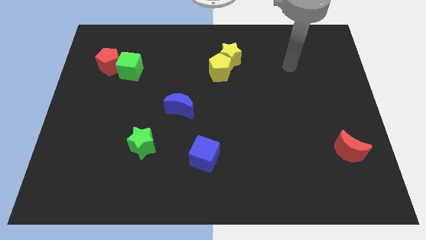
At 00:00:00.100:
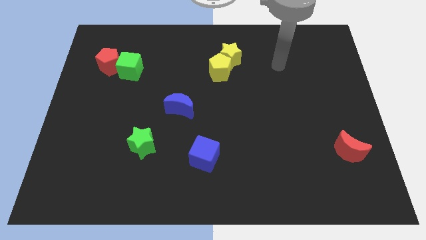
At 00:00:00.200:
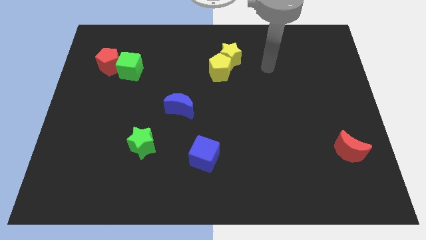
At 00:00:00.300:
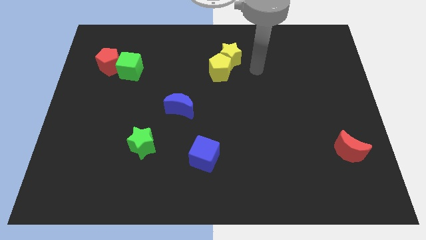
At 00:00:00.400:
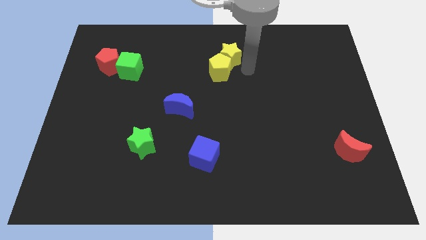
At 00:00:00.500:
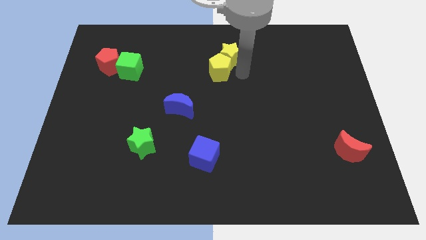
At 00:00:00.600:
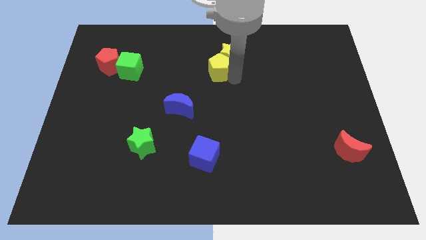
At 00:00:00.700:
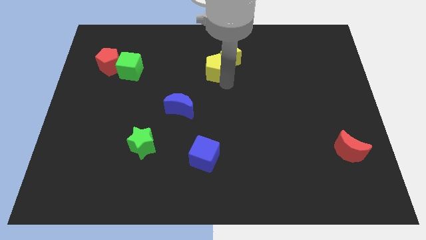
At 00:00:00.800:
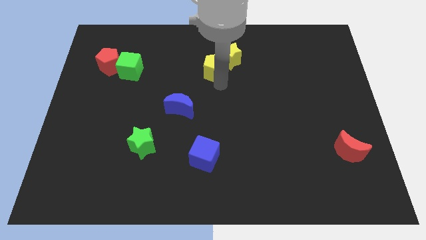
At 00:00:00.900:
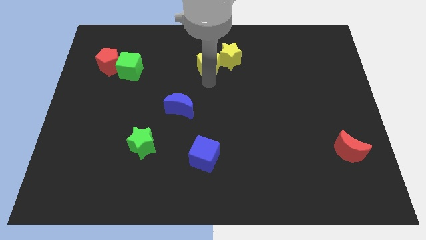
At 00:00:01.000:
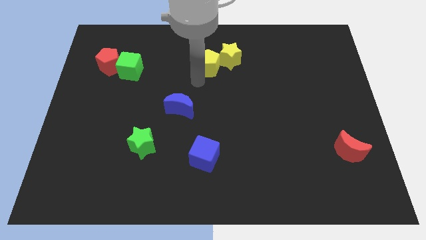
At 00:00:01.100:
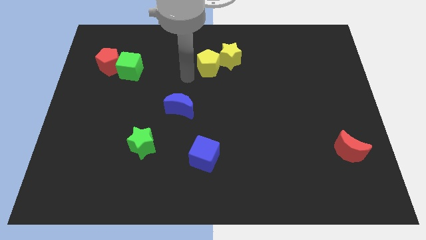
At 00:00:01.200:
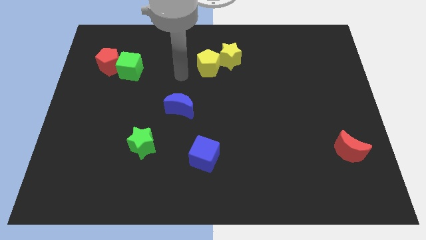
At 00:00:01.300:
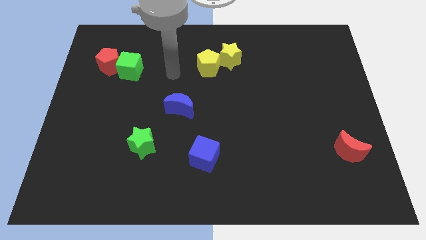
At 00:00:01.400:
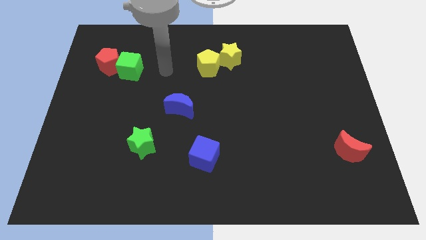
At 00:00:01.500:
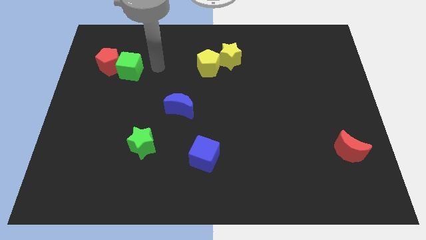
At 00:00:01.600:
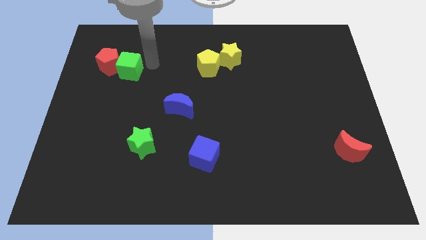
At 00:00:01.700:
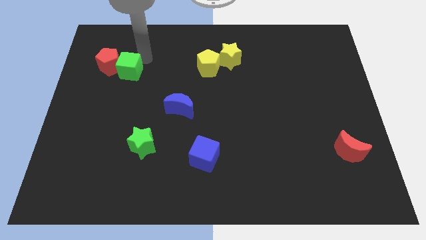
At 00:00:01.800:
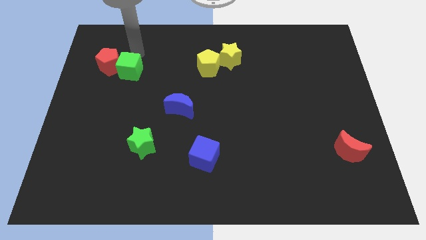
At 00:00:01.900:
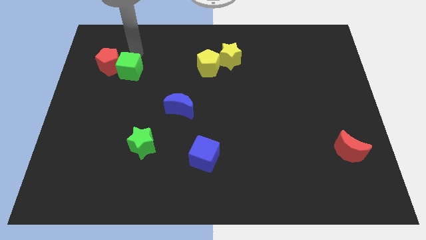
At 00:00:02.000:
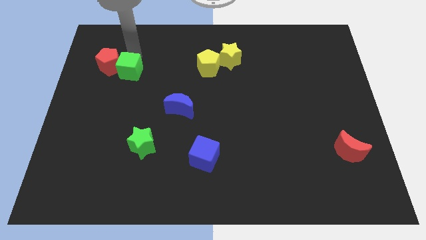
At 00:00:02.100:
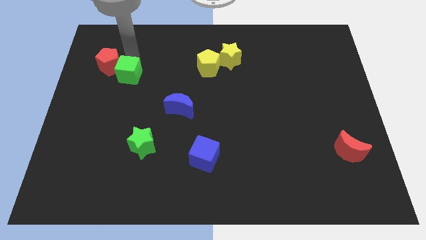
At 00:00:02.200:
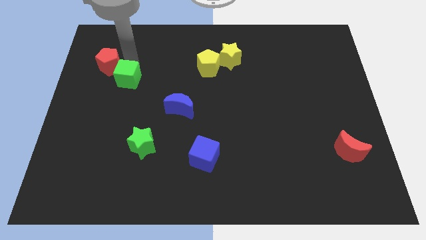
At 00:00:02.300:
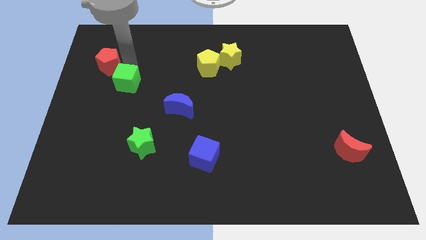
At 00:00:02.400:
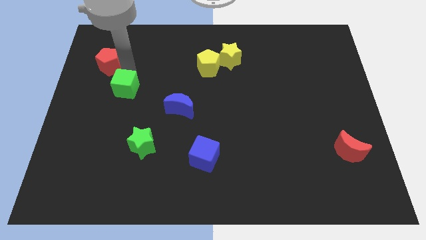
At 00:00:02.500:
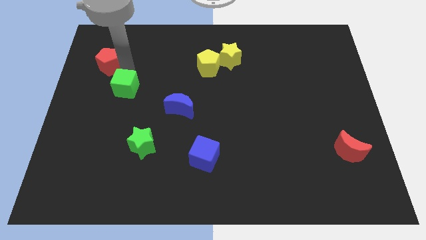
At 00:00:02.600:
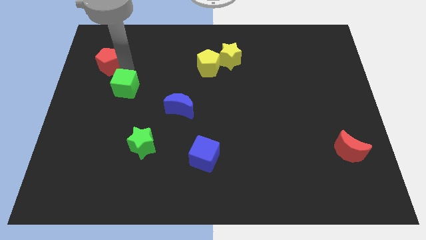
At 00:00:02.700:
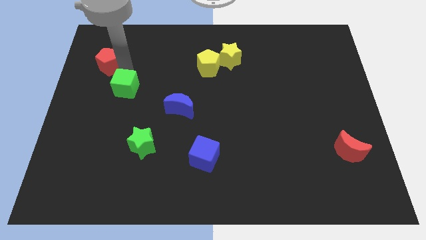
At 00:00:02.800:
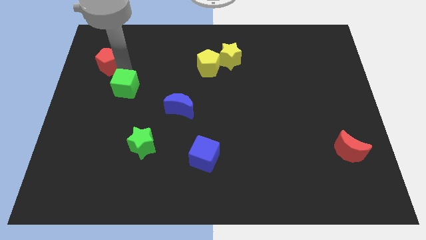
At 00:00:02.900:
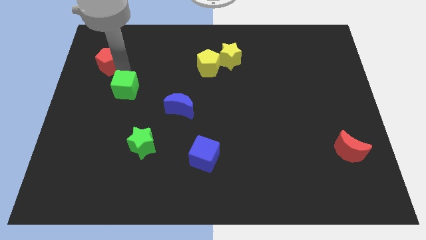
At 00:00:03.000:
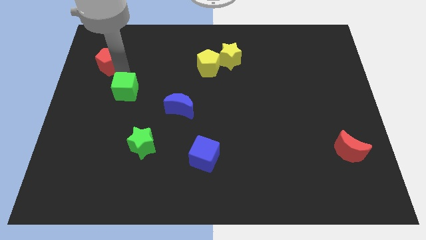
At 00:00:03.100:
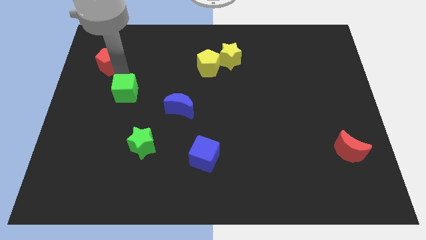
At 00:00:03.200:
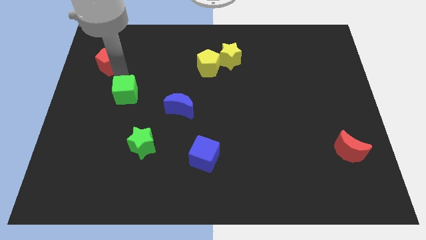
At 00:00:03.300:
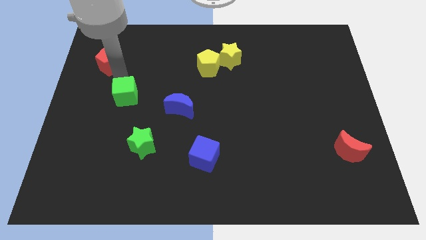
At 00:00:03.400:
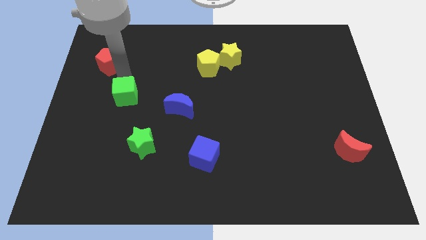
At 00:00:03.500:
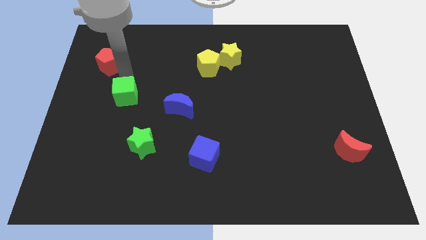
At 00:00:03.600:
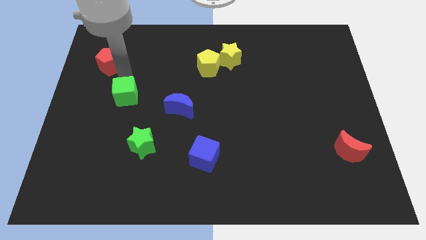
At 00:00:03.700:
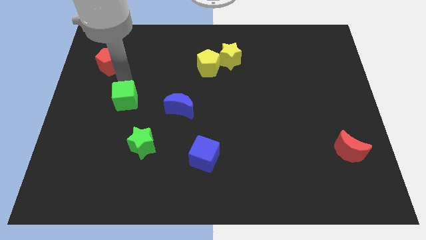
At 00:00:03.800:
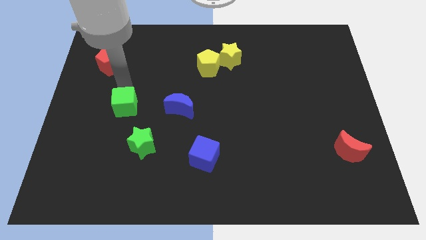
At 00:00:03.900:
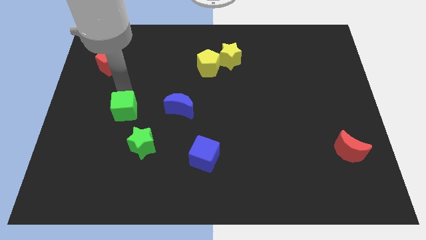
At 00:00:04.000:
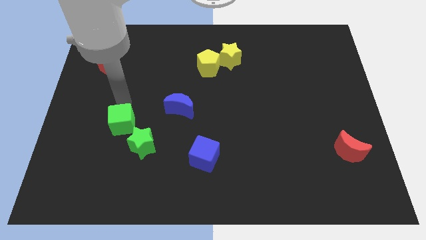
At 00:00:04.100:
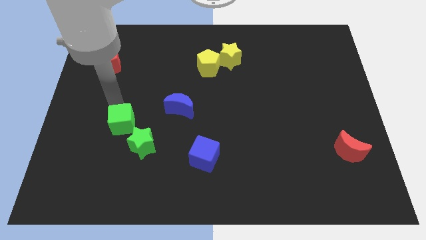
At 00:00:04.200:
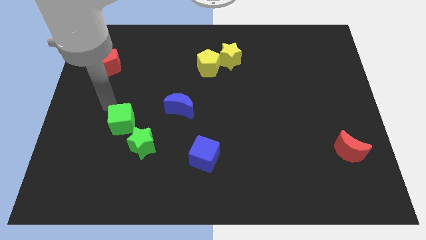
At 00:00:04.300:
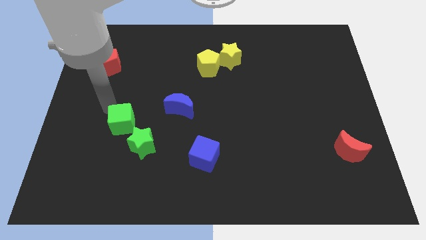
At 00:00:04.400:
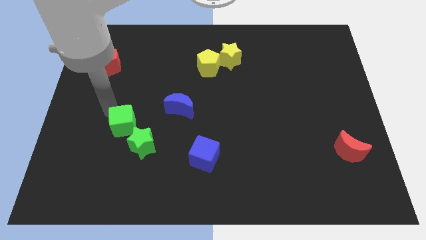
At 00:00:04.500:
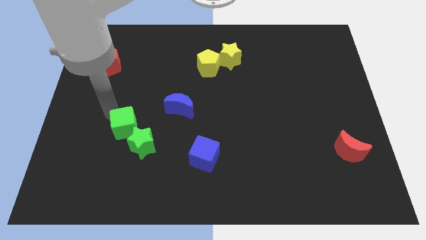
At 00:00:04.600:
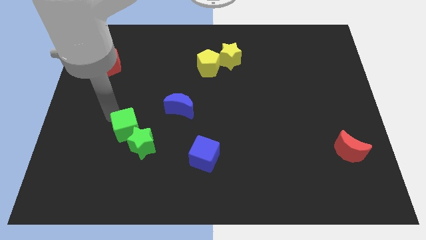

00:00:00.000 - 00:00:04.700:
put the green cube next to the green star

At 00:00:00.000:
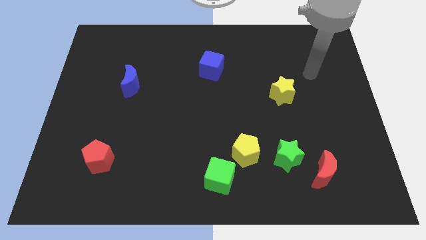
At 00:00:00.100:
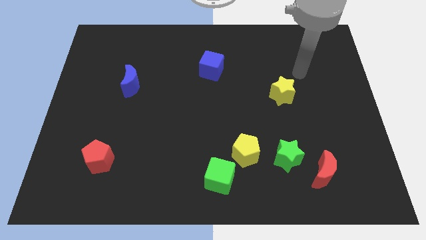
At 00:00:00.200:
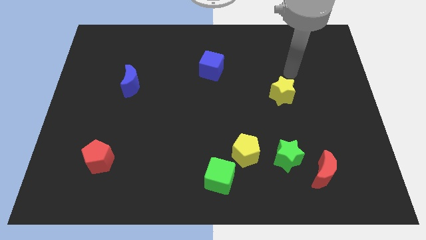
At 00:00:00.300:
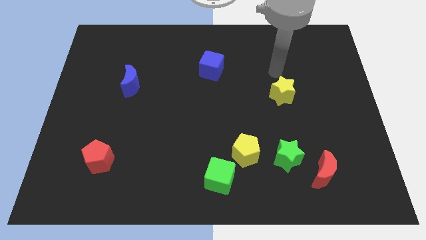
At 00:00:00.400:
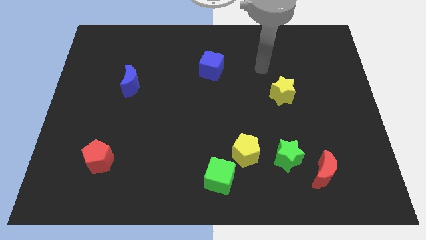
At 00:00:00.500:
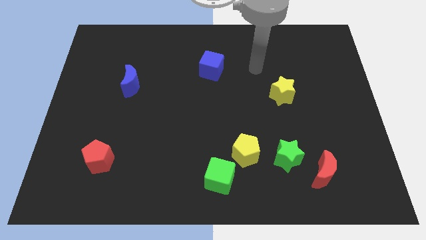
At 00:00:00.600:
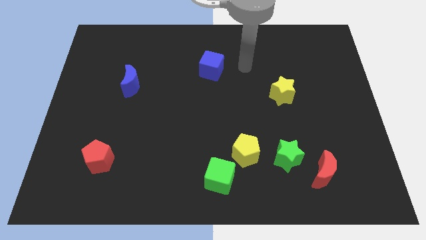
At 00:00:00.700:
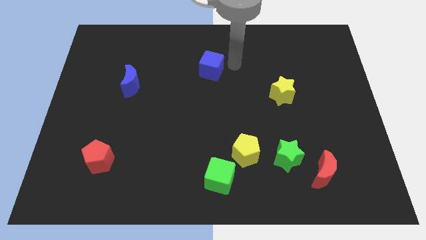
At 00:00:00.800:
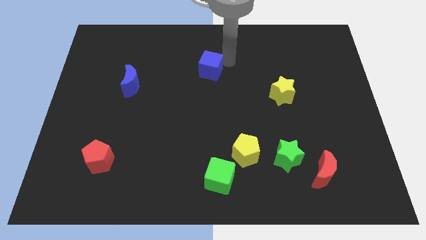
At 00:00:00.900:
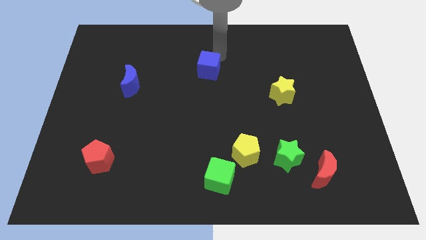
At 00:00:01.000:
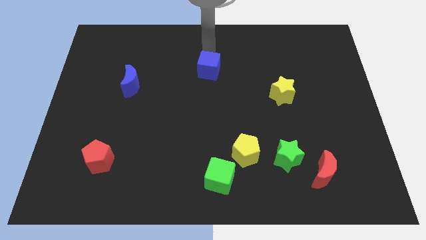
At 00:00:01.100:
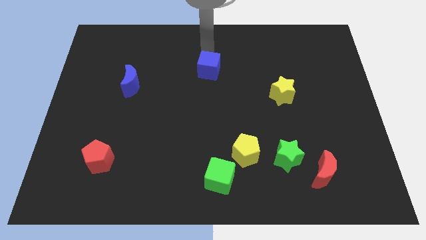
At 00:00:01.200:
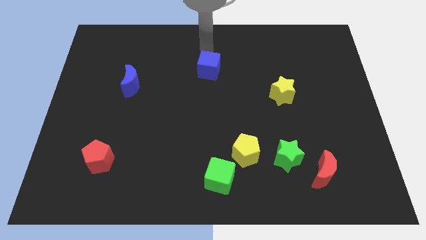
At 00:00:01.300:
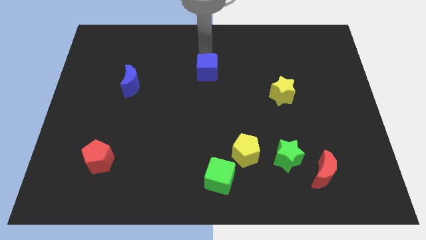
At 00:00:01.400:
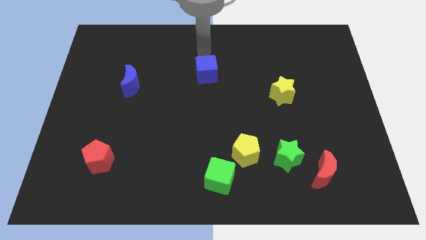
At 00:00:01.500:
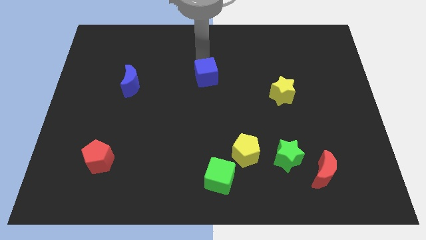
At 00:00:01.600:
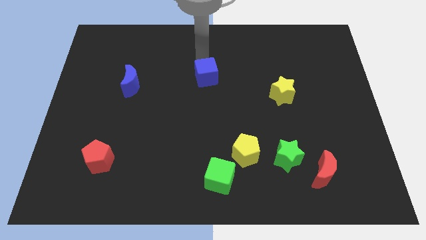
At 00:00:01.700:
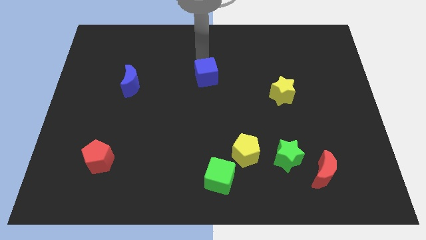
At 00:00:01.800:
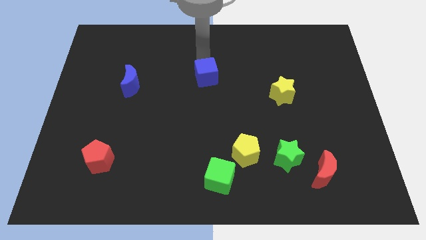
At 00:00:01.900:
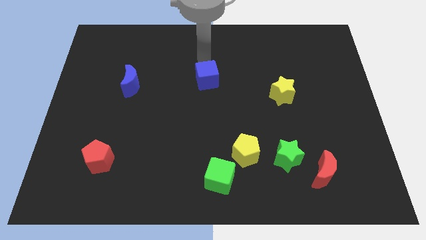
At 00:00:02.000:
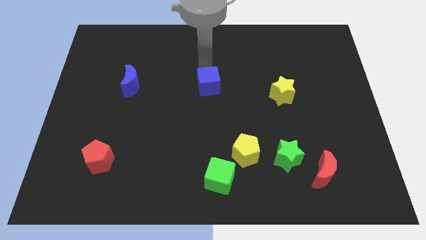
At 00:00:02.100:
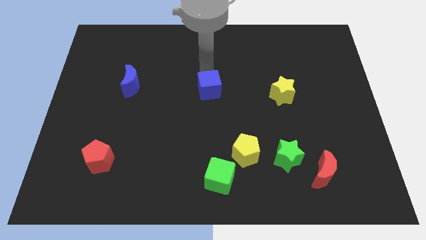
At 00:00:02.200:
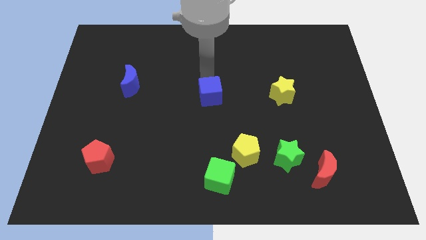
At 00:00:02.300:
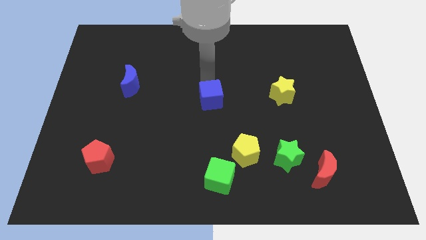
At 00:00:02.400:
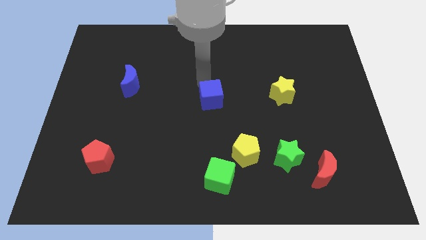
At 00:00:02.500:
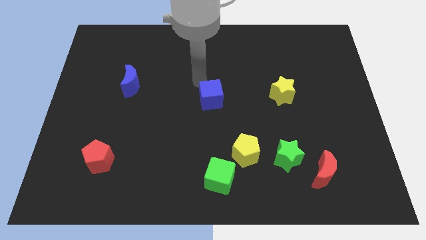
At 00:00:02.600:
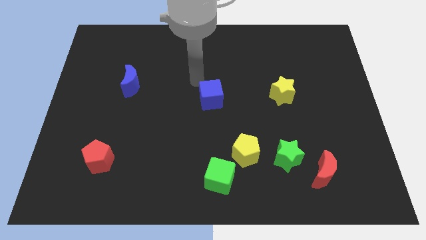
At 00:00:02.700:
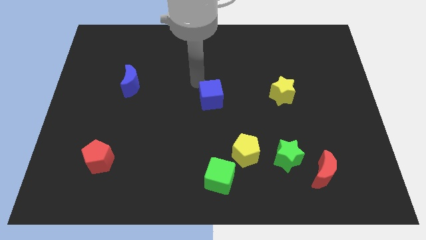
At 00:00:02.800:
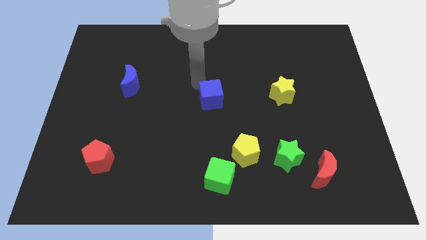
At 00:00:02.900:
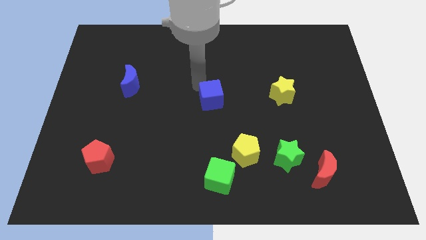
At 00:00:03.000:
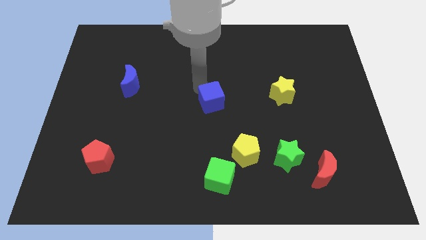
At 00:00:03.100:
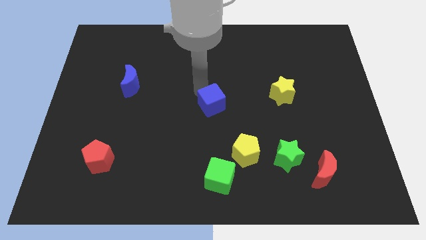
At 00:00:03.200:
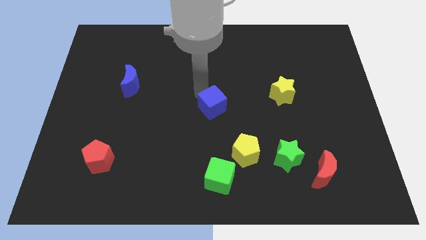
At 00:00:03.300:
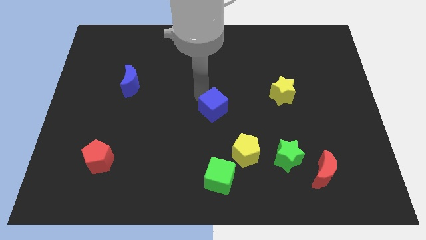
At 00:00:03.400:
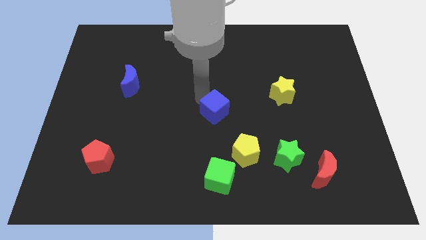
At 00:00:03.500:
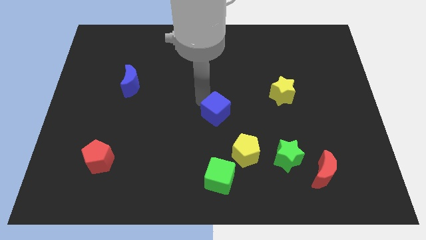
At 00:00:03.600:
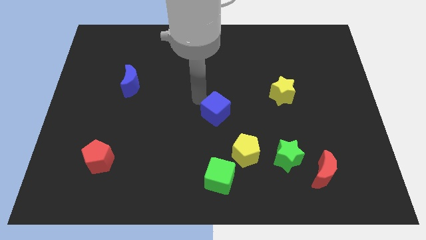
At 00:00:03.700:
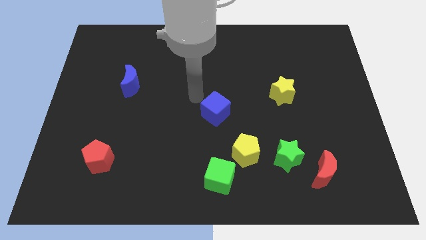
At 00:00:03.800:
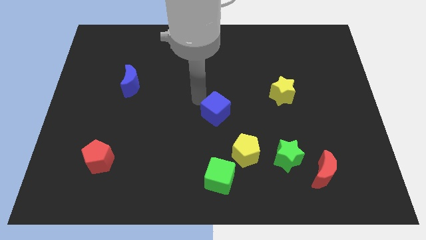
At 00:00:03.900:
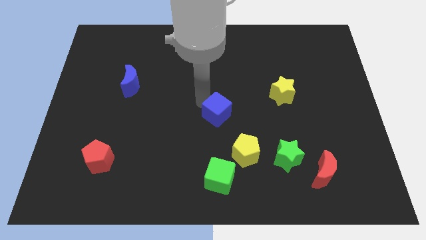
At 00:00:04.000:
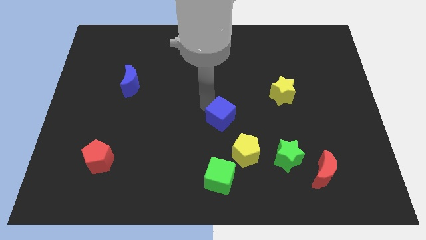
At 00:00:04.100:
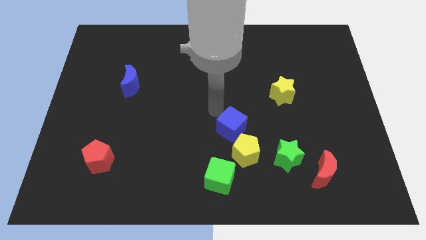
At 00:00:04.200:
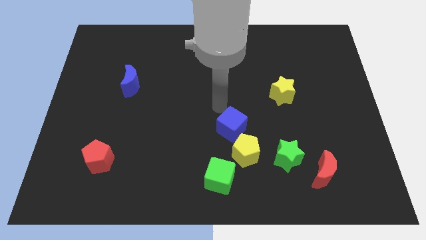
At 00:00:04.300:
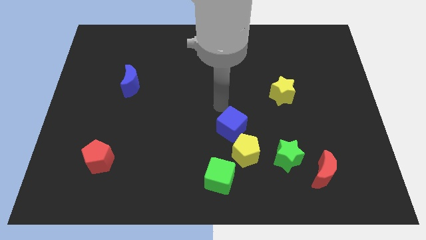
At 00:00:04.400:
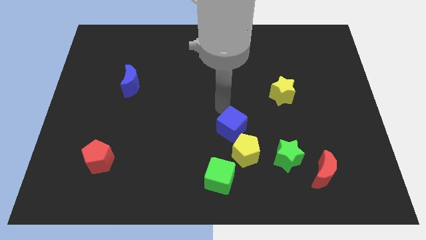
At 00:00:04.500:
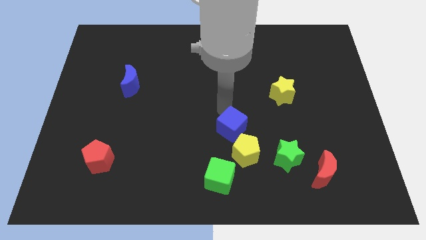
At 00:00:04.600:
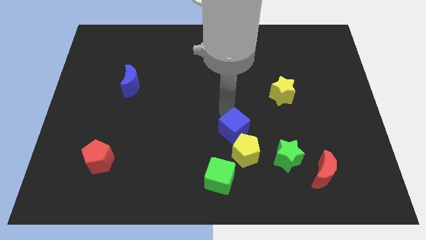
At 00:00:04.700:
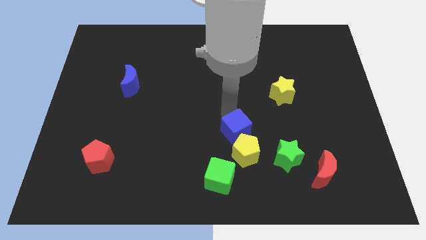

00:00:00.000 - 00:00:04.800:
put the blue cube next to the yellow pentagon
